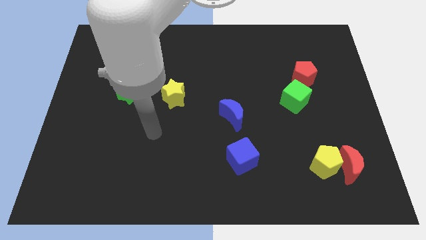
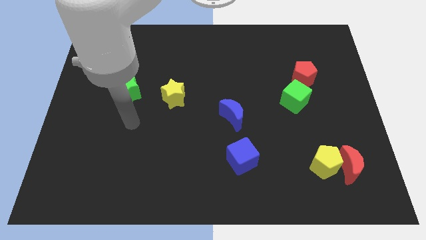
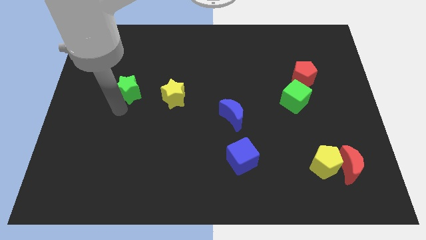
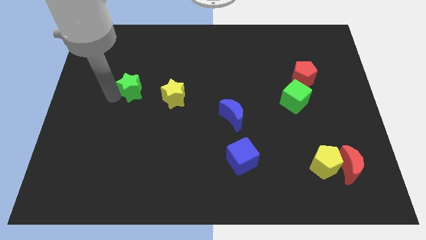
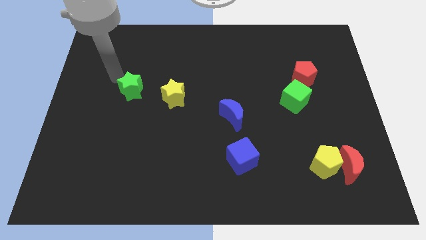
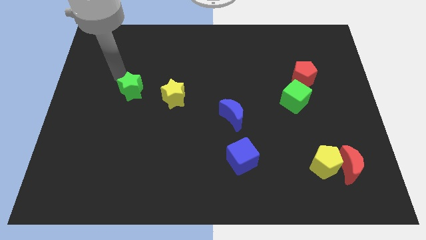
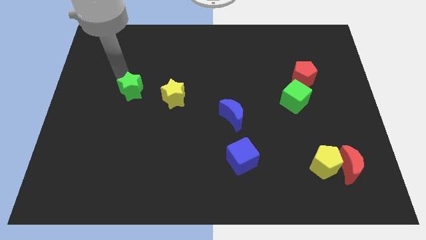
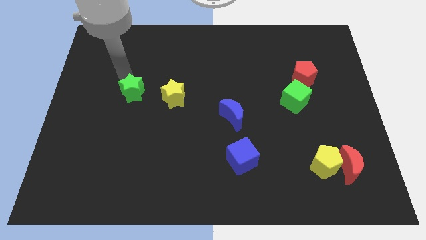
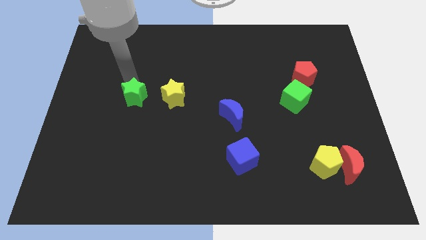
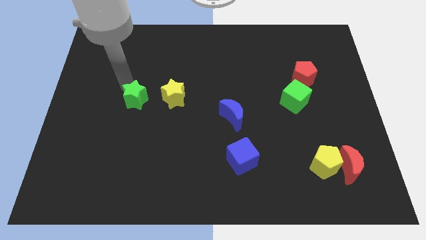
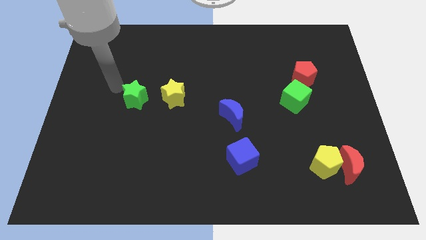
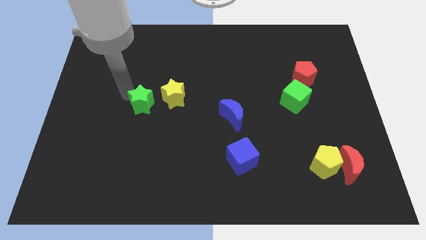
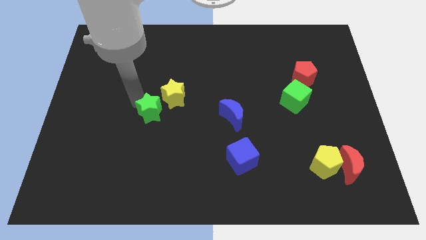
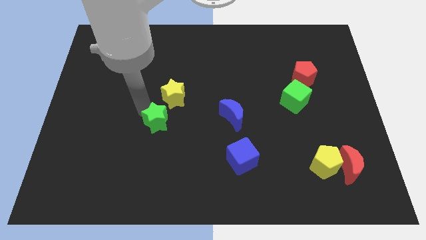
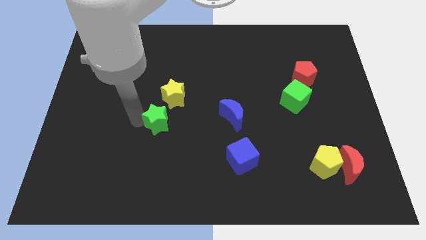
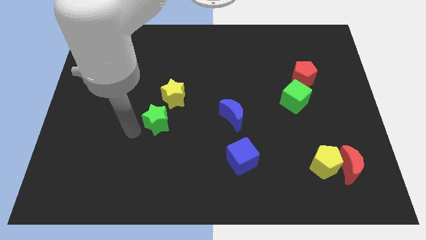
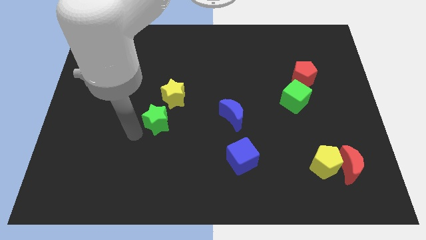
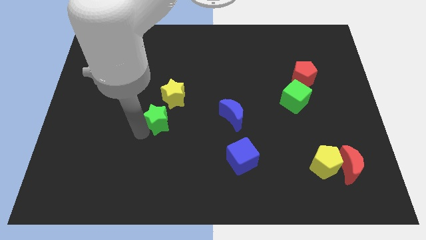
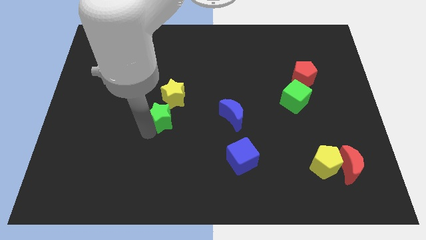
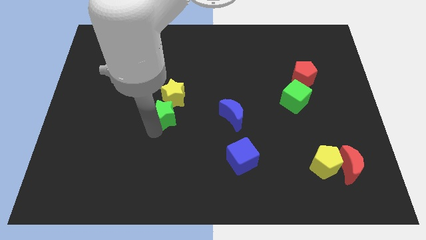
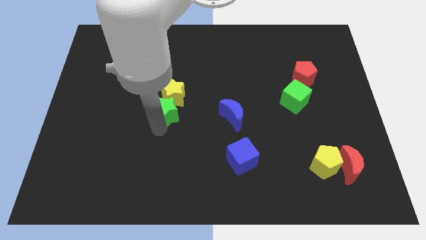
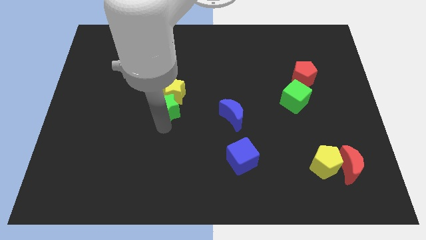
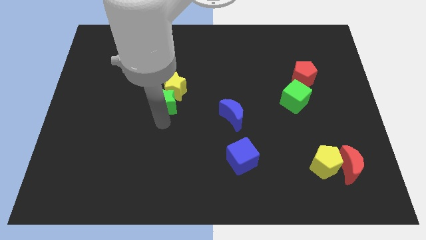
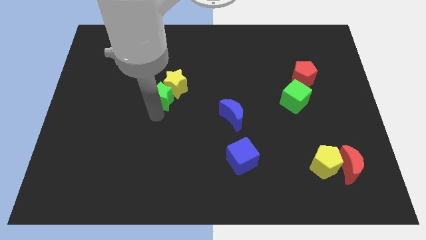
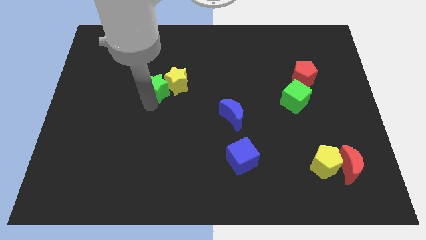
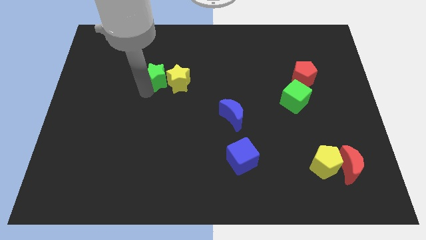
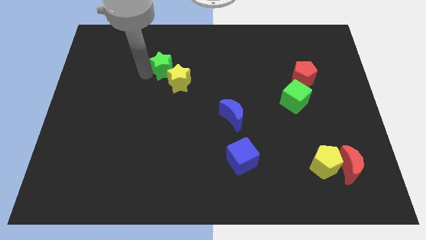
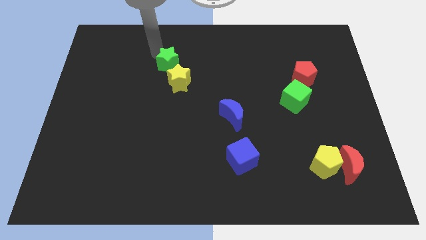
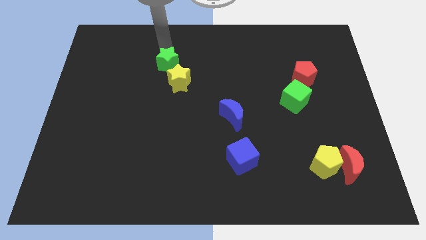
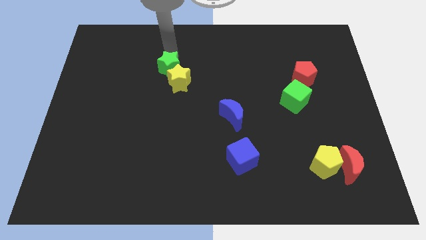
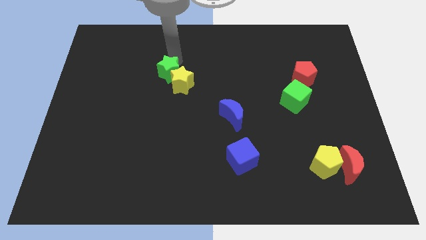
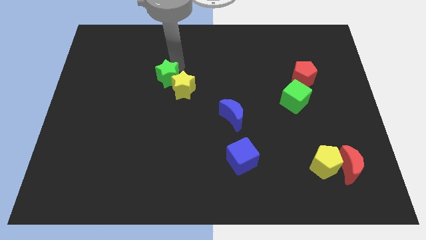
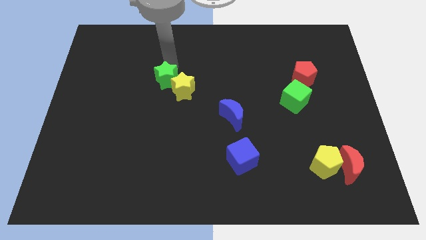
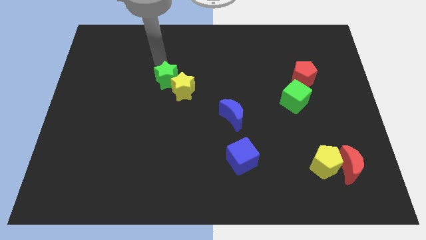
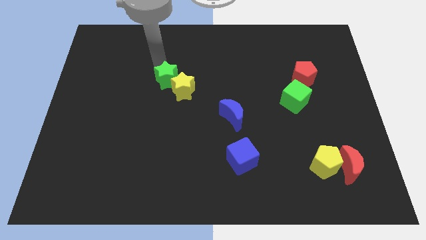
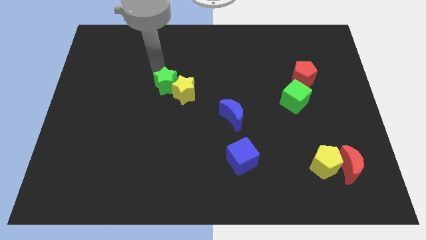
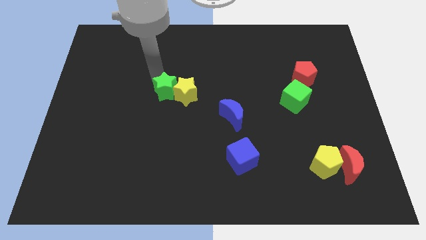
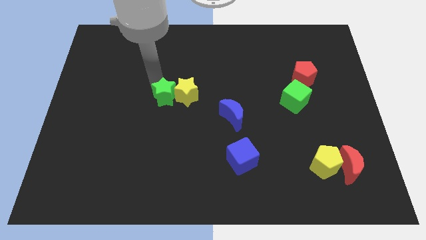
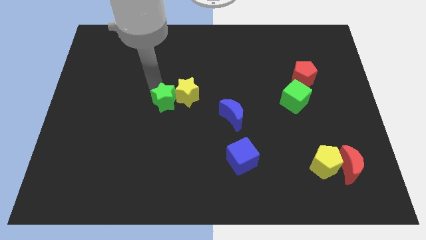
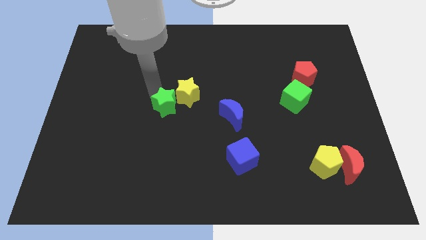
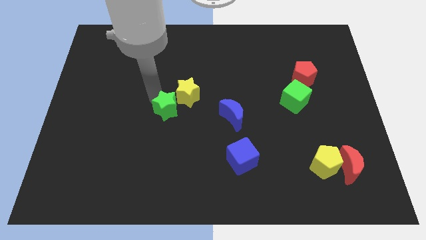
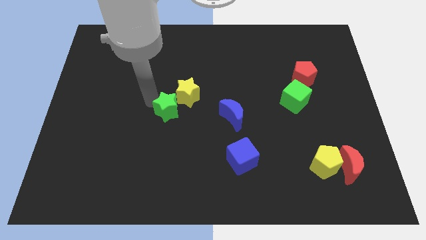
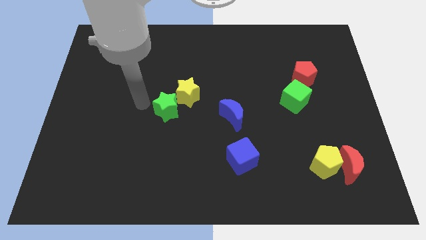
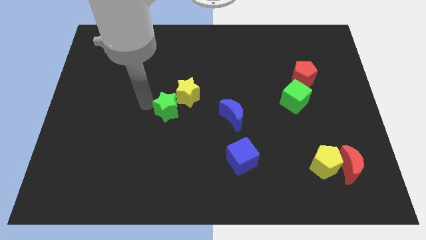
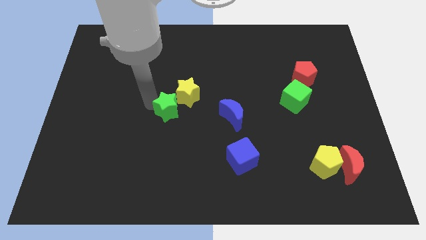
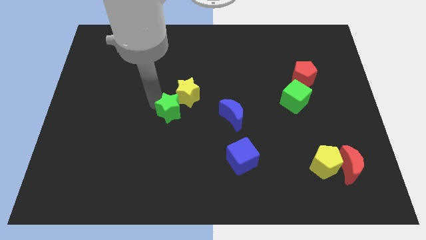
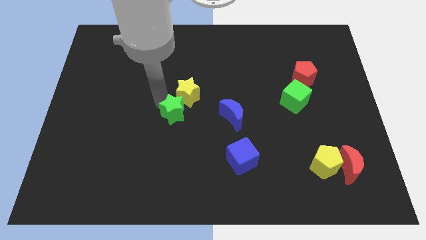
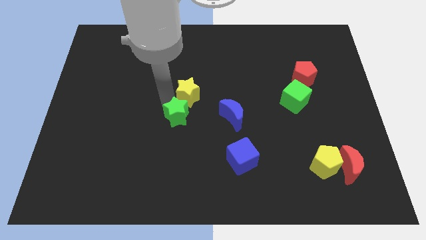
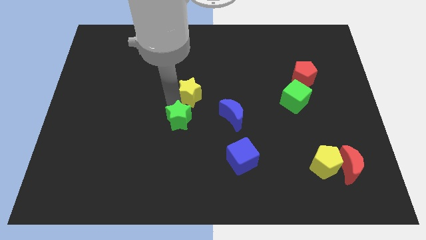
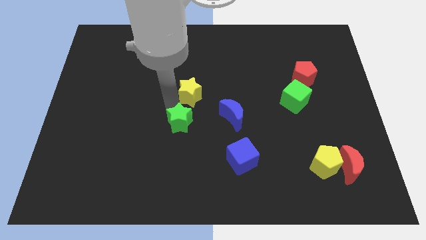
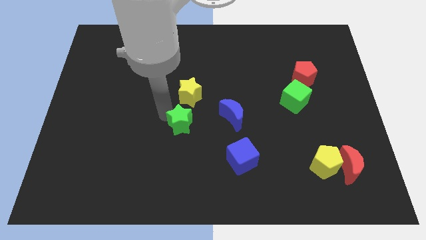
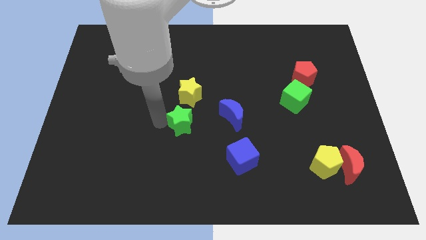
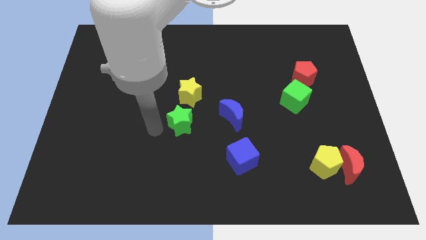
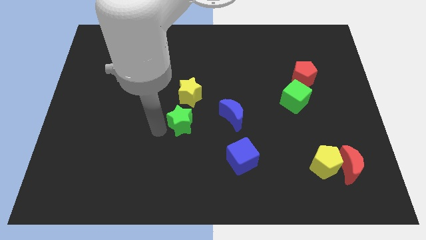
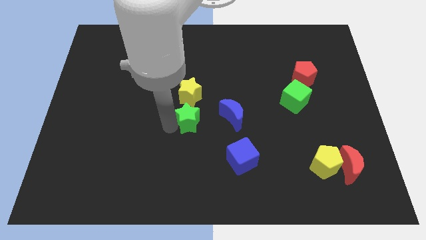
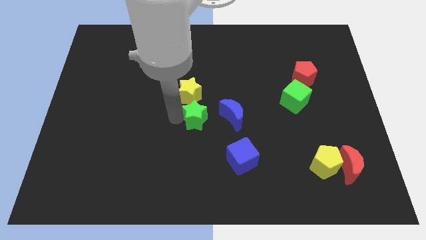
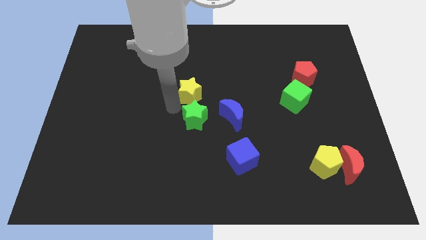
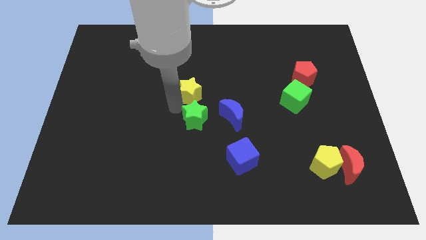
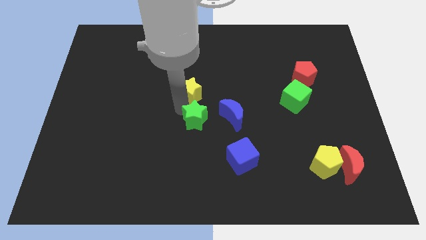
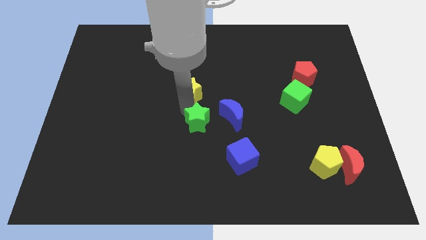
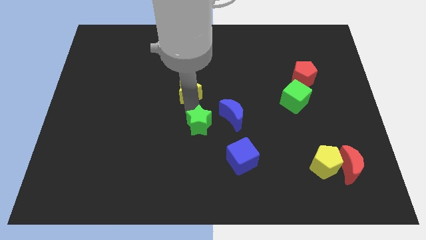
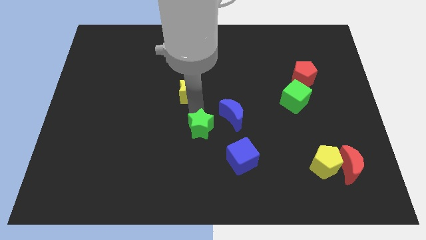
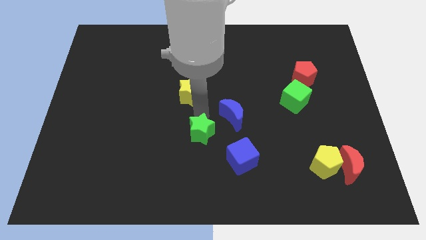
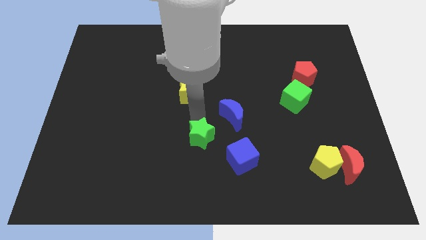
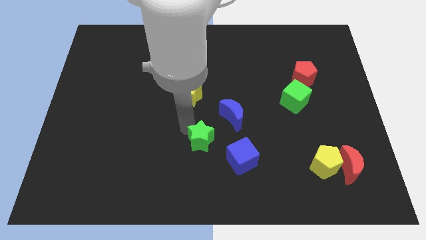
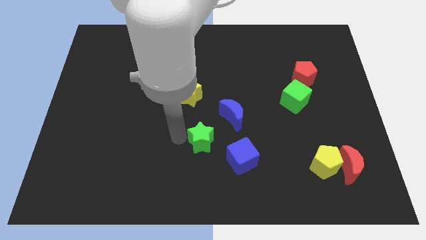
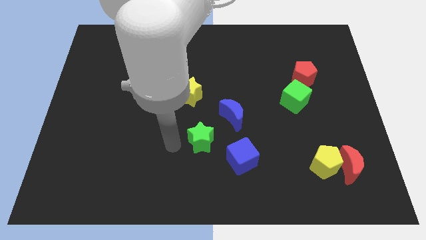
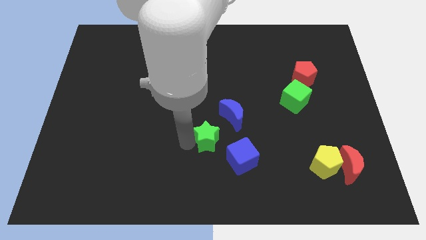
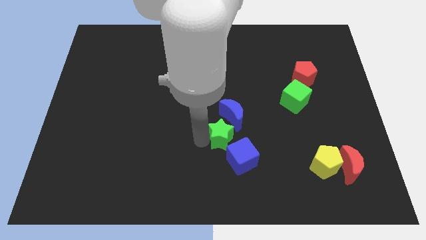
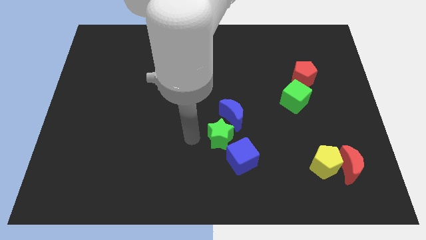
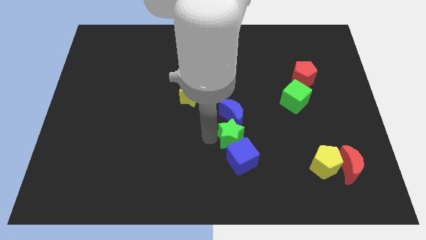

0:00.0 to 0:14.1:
move the green star to the bottom right of the blue moon

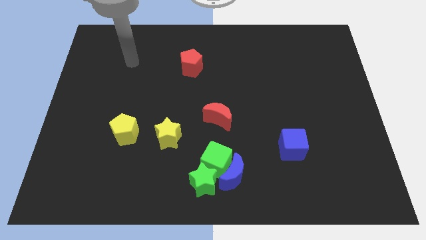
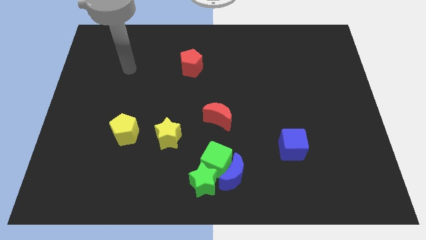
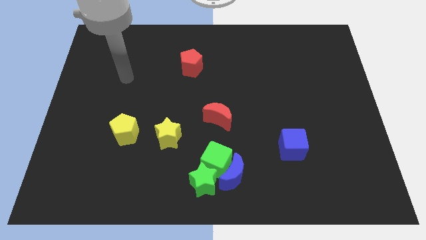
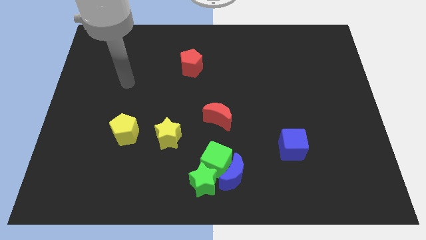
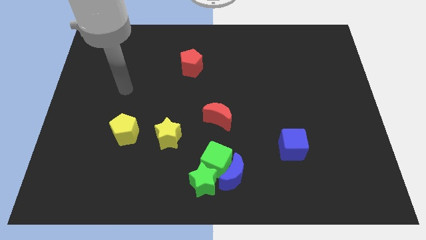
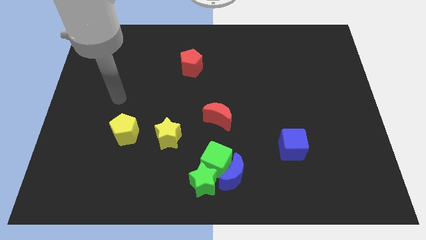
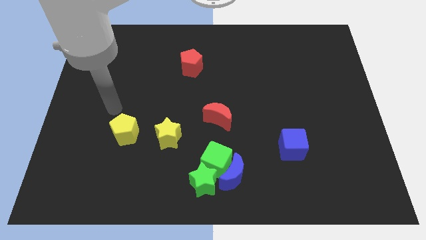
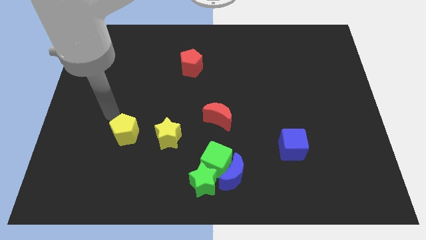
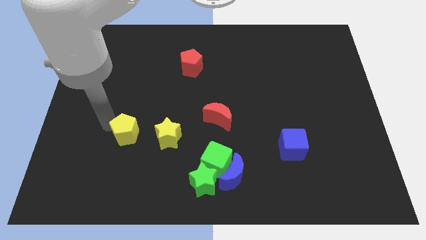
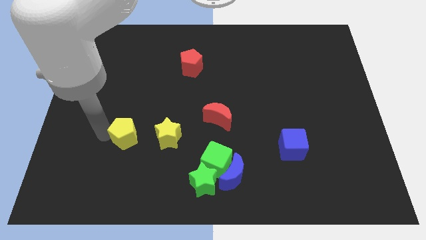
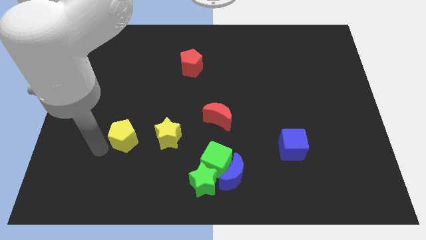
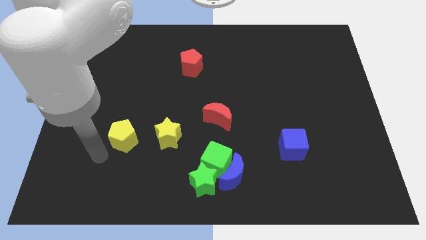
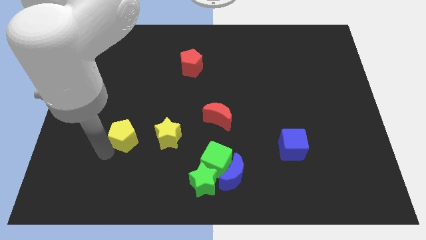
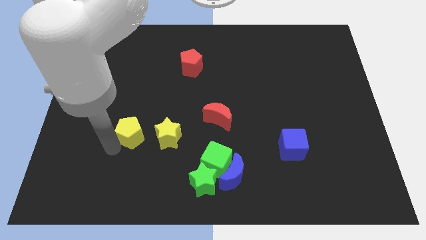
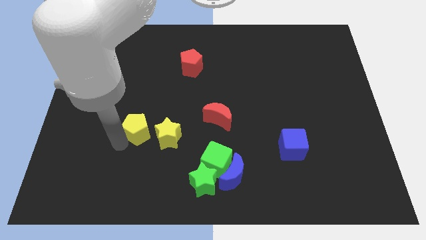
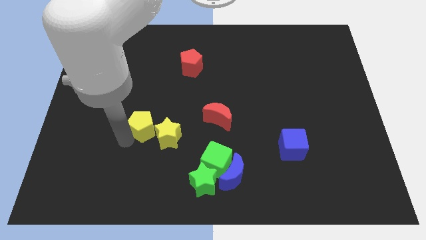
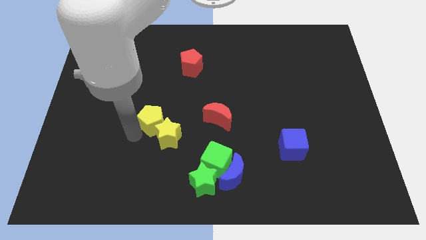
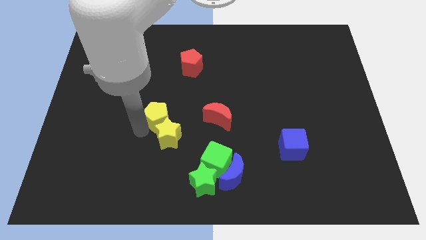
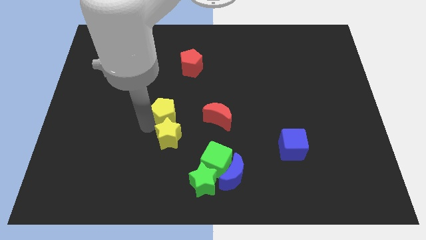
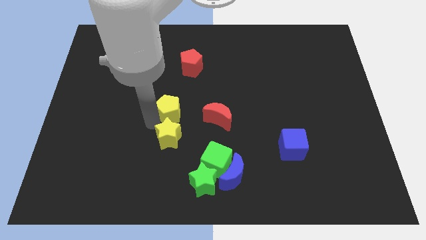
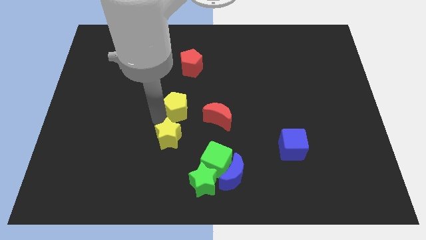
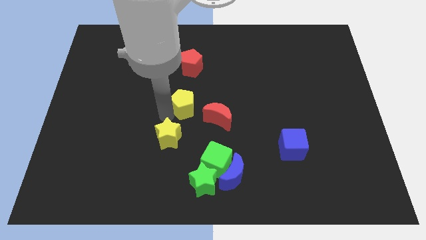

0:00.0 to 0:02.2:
put the yellow pentagon diagonally up and to the left of the red moon
